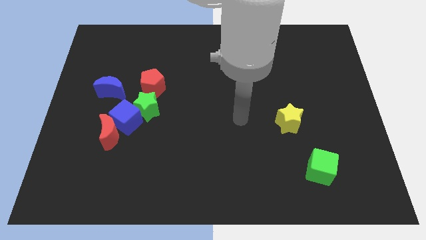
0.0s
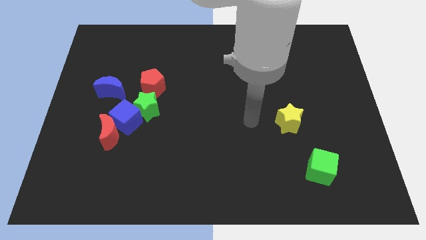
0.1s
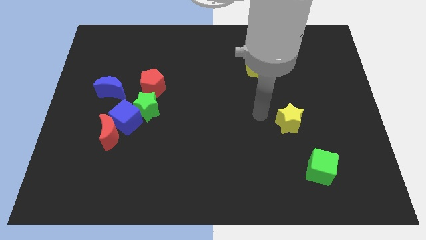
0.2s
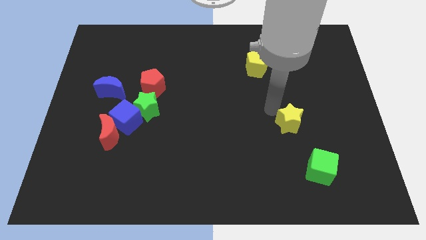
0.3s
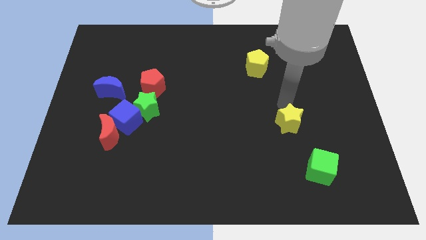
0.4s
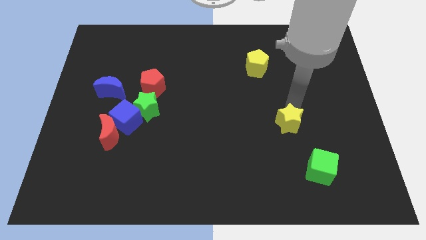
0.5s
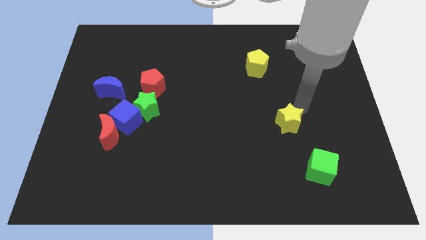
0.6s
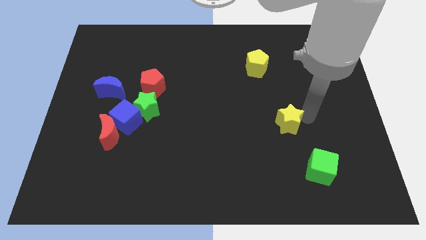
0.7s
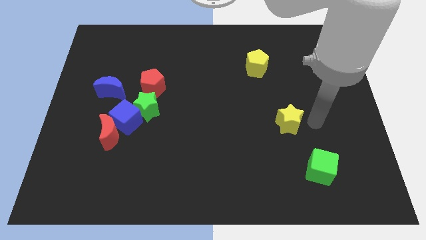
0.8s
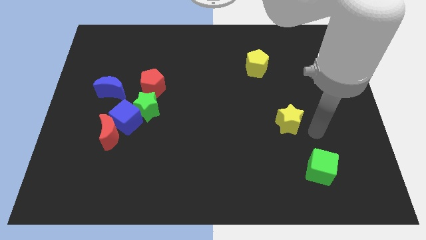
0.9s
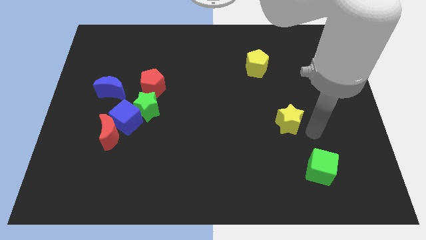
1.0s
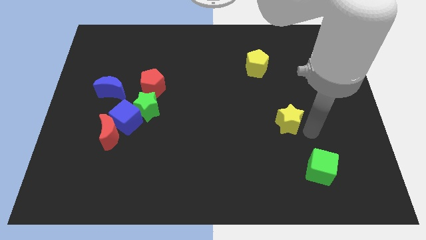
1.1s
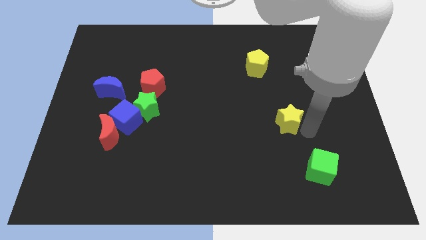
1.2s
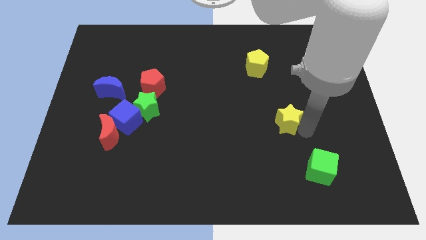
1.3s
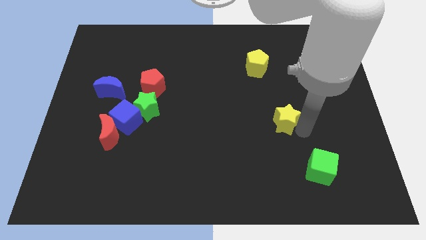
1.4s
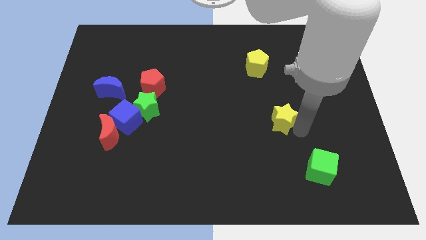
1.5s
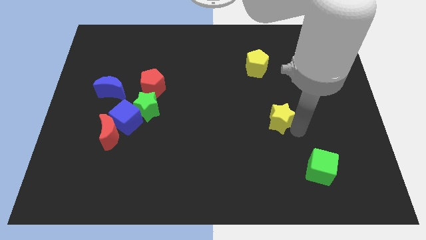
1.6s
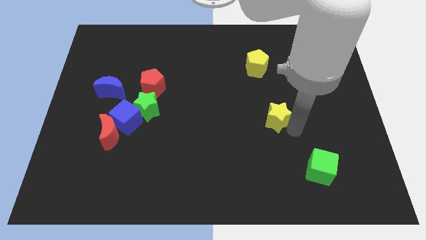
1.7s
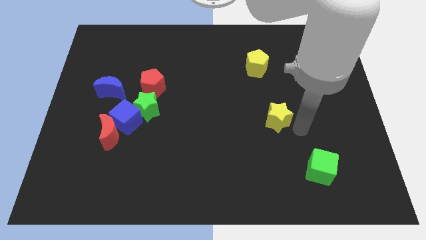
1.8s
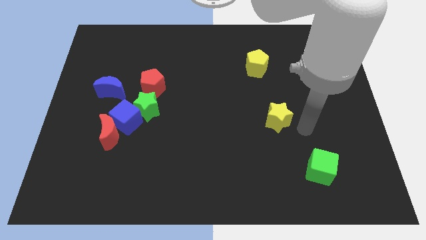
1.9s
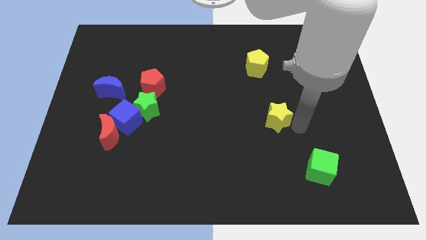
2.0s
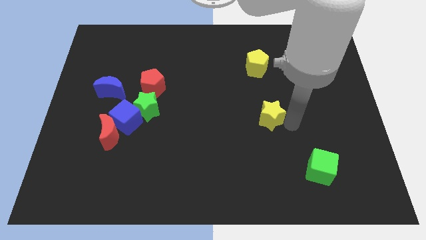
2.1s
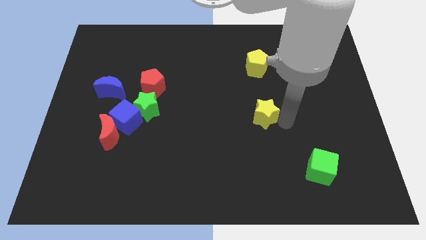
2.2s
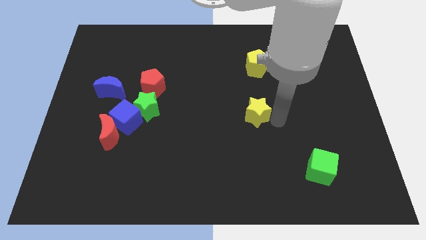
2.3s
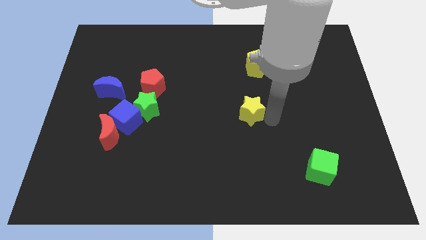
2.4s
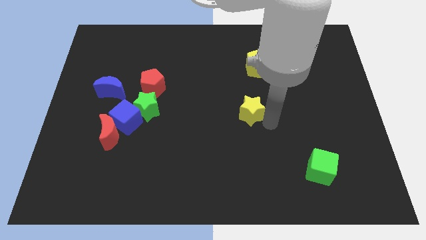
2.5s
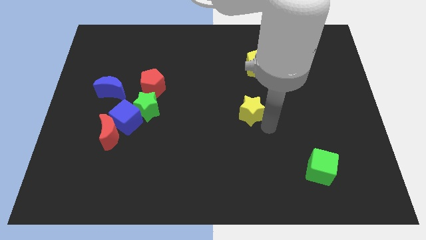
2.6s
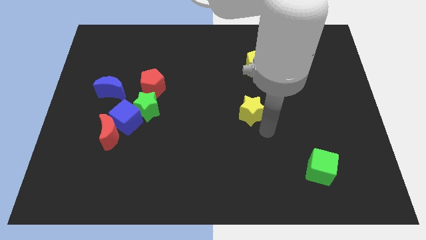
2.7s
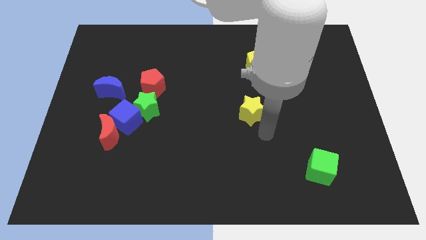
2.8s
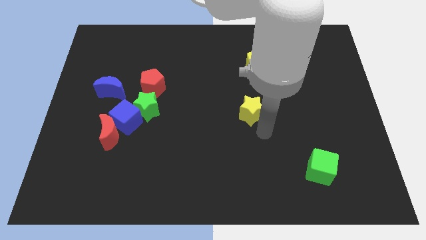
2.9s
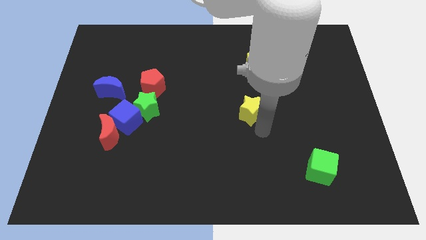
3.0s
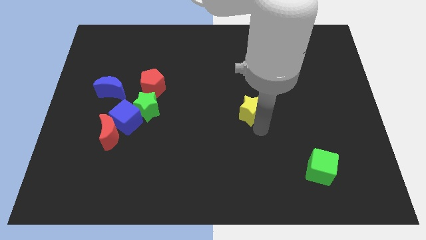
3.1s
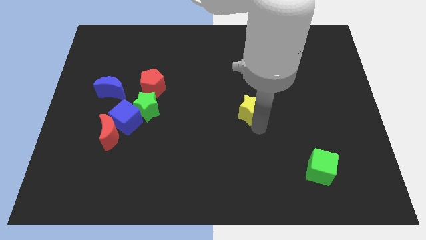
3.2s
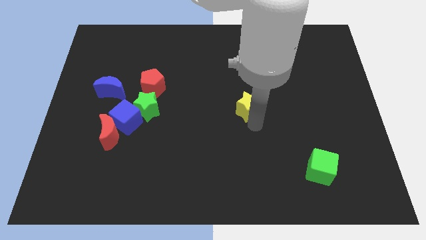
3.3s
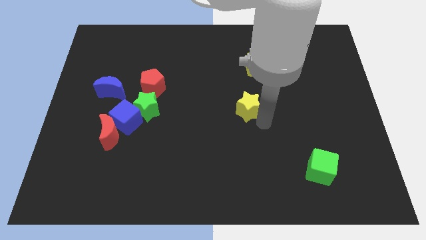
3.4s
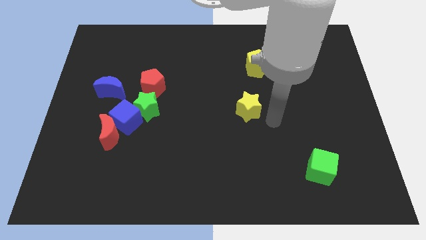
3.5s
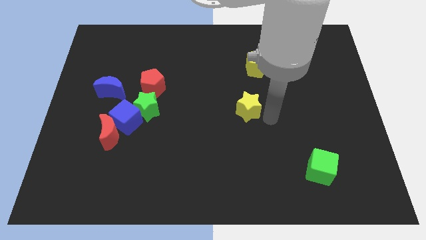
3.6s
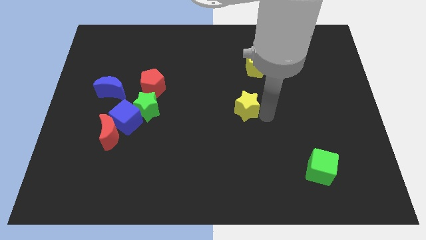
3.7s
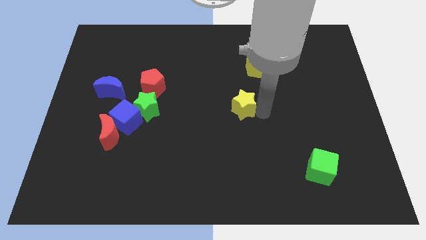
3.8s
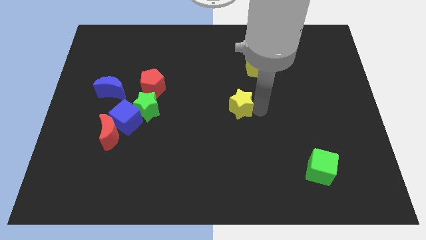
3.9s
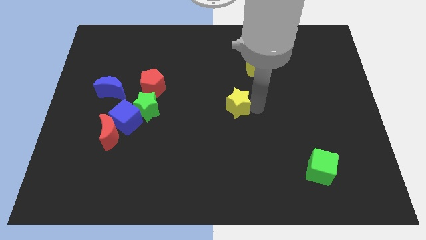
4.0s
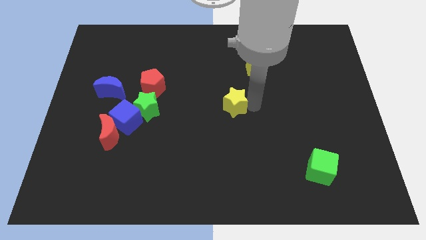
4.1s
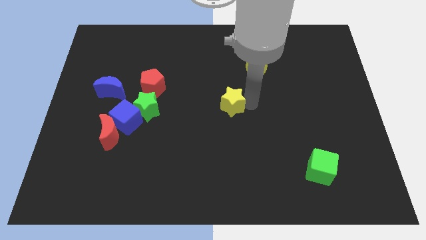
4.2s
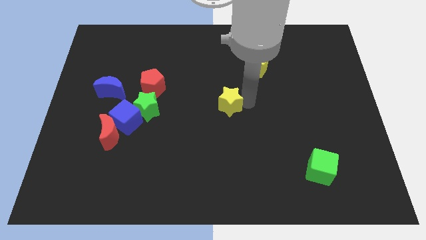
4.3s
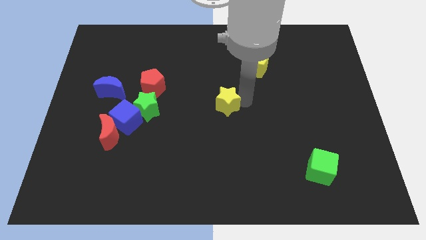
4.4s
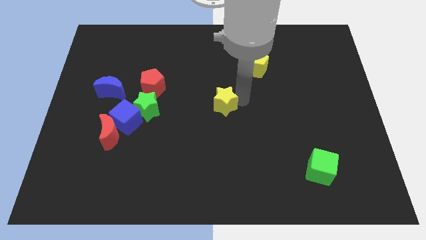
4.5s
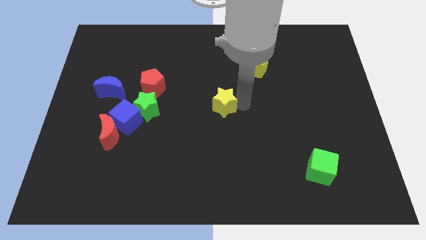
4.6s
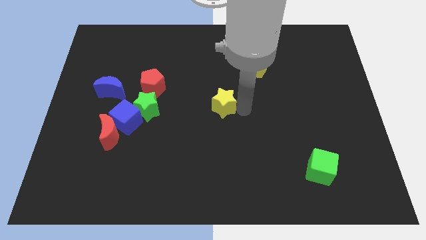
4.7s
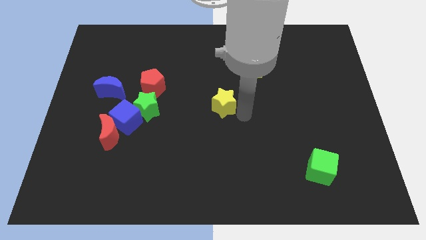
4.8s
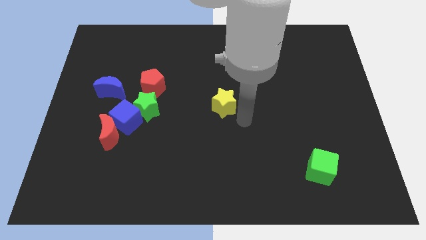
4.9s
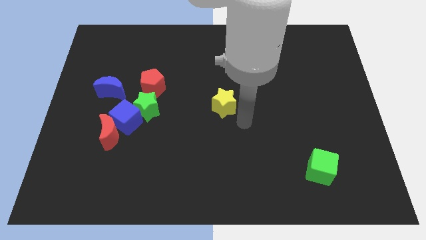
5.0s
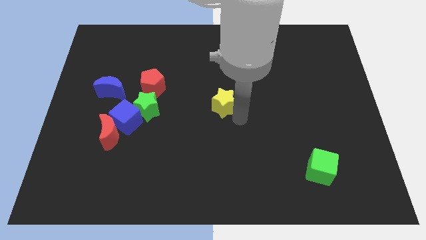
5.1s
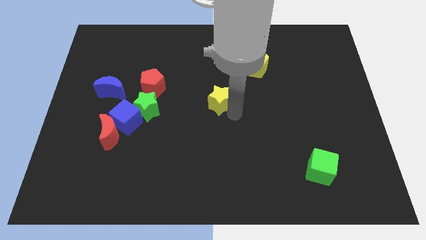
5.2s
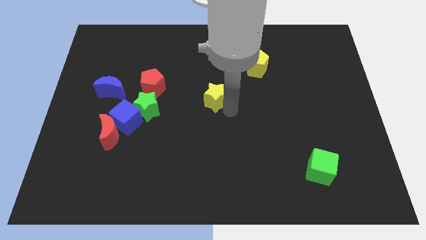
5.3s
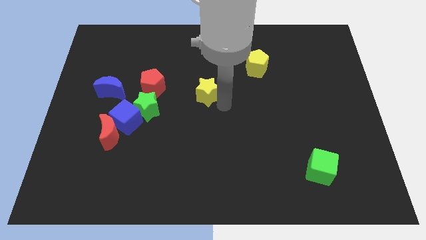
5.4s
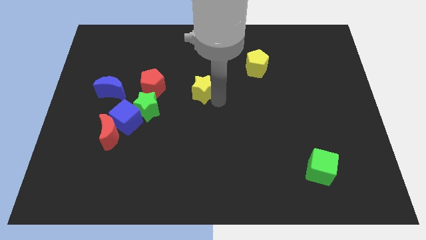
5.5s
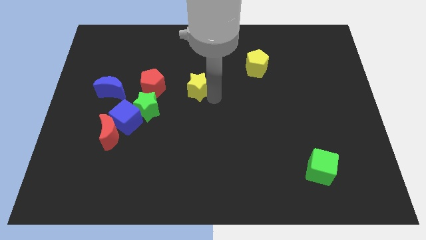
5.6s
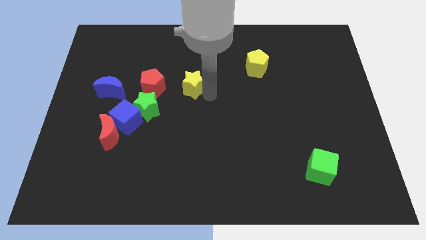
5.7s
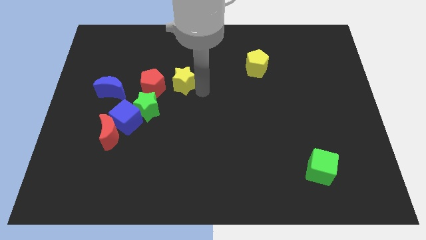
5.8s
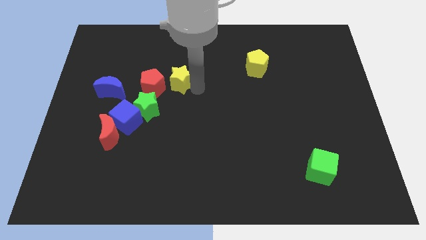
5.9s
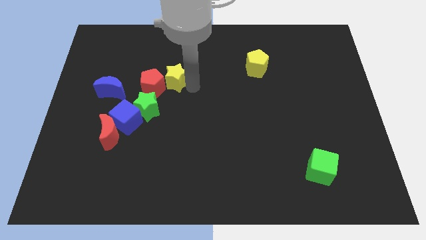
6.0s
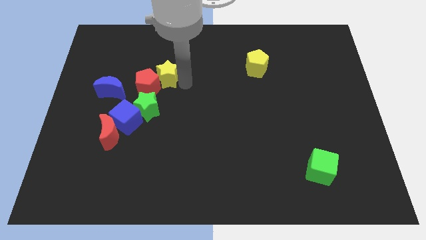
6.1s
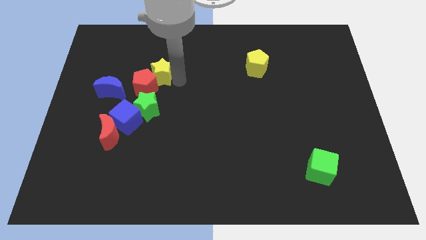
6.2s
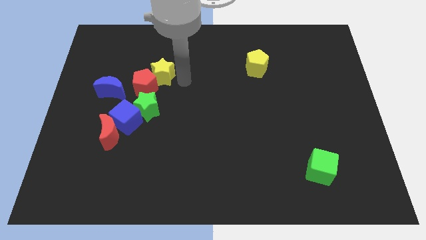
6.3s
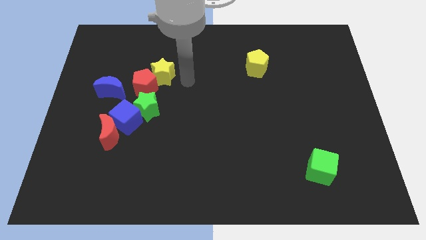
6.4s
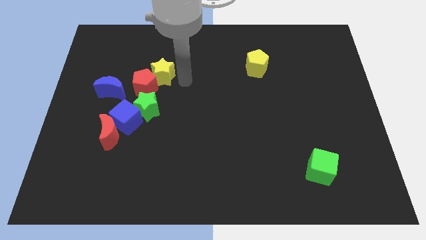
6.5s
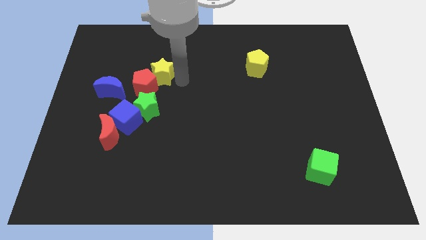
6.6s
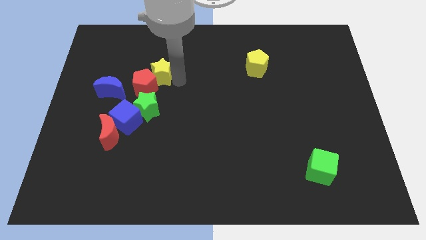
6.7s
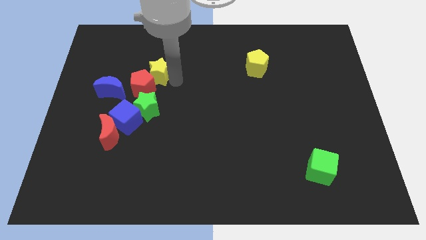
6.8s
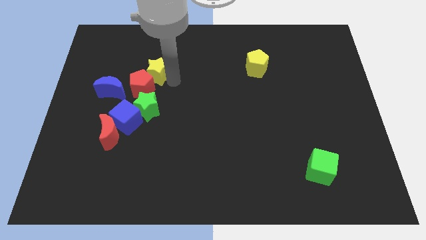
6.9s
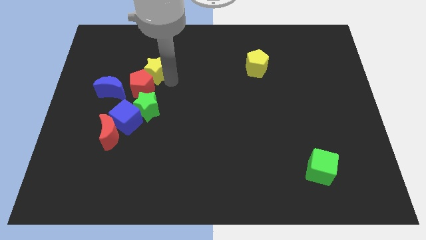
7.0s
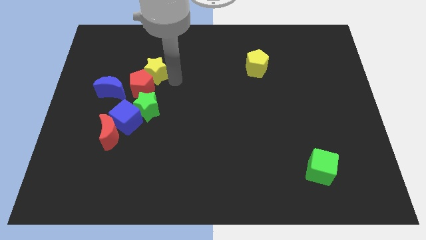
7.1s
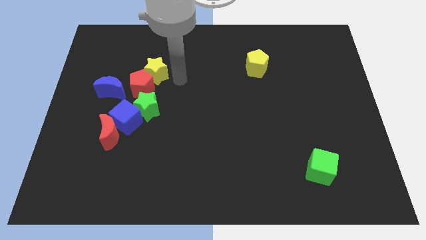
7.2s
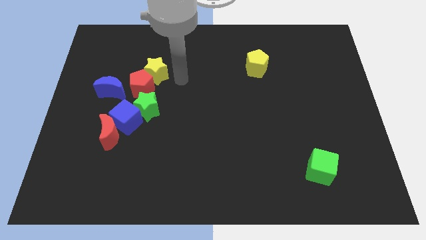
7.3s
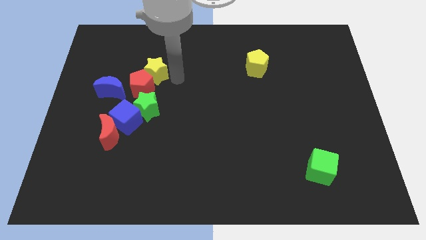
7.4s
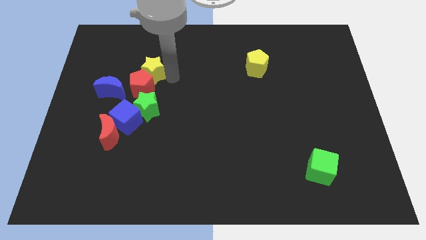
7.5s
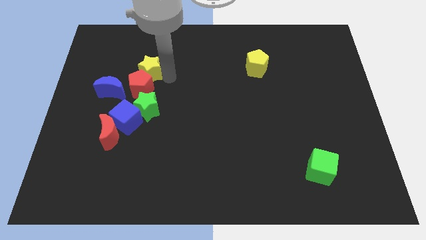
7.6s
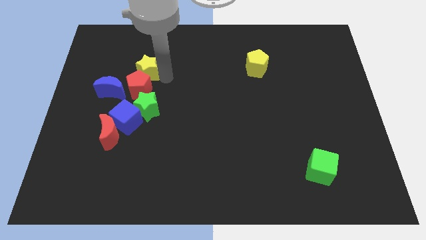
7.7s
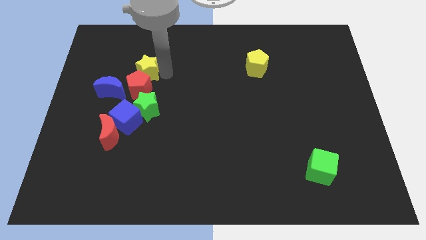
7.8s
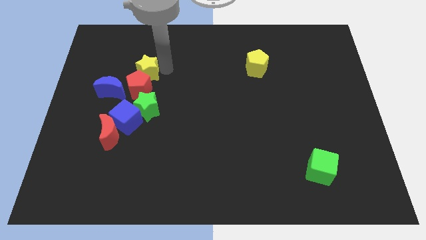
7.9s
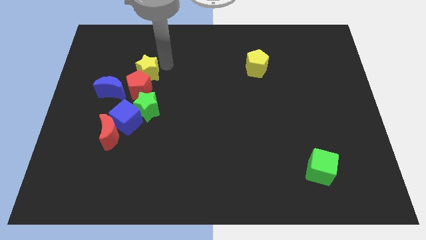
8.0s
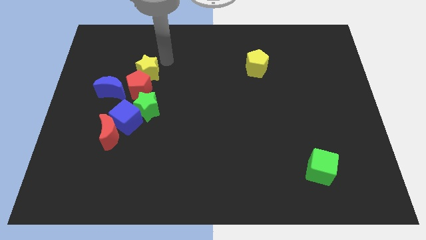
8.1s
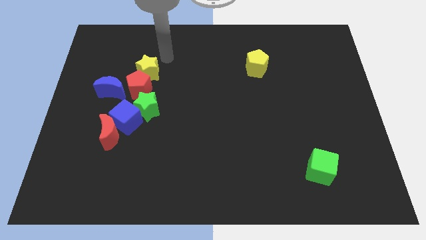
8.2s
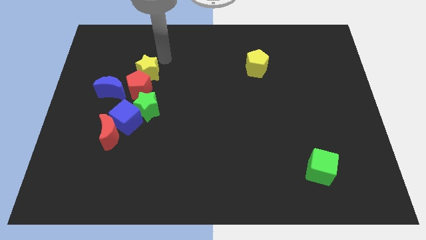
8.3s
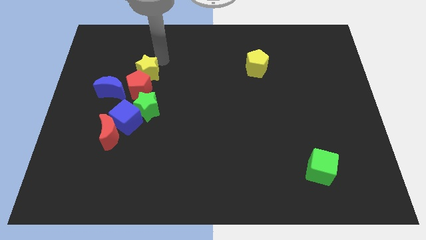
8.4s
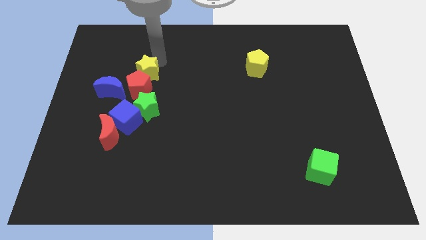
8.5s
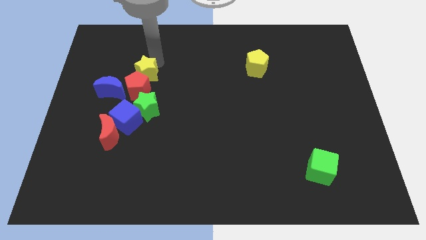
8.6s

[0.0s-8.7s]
move the yellow star to the top of the blue cube
